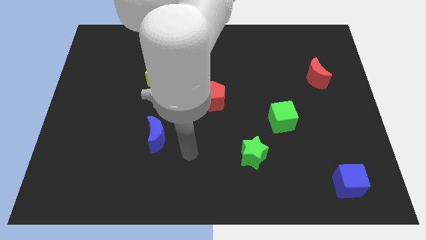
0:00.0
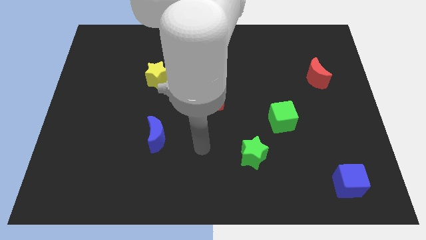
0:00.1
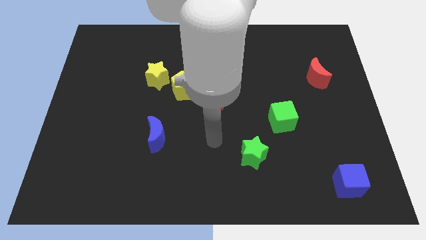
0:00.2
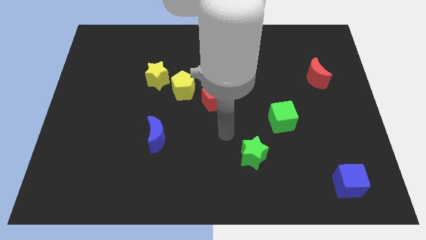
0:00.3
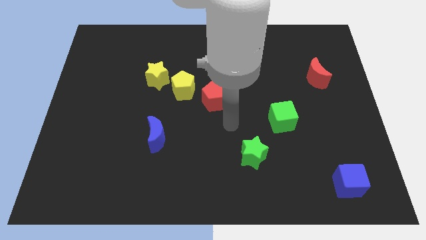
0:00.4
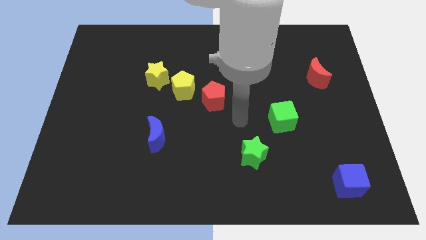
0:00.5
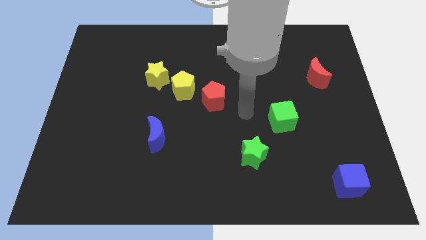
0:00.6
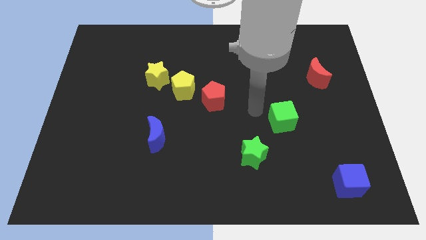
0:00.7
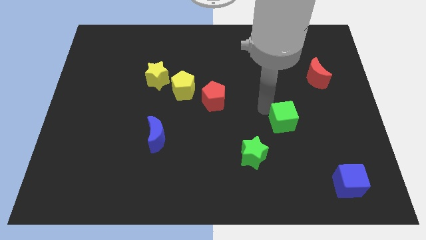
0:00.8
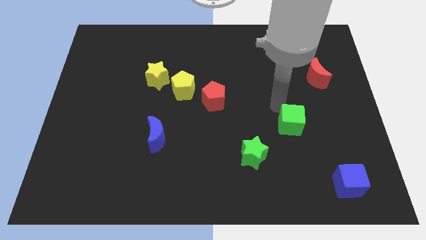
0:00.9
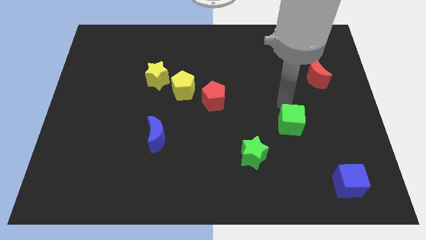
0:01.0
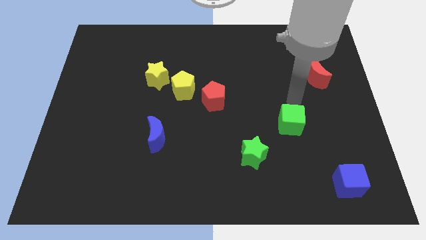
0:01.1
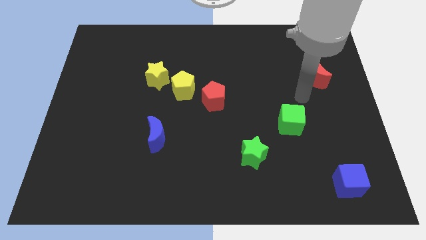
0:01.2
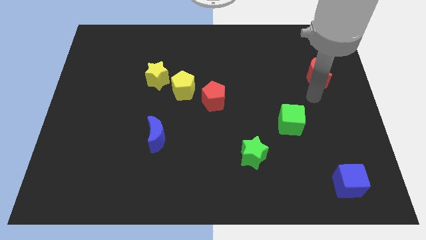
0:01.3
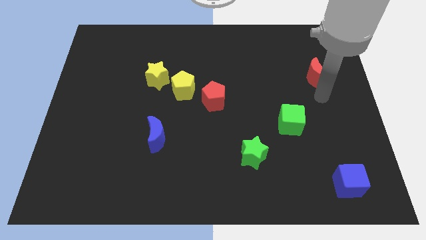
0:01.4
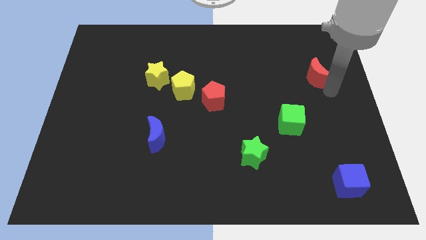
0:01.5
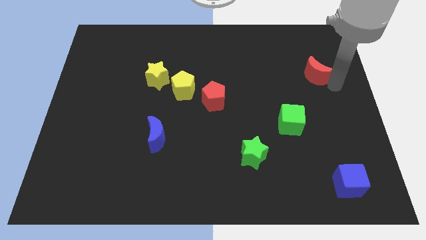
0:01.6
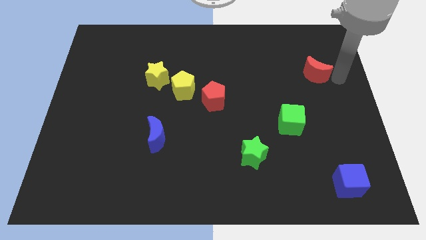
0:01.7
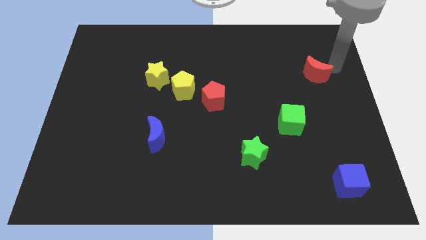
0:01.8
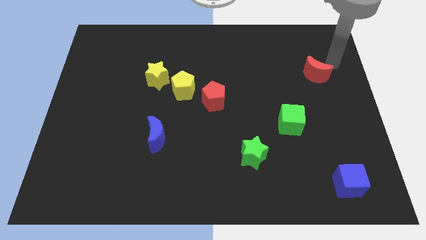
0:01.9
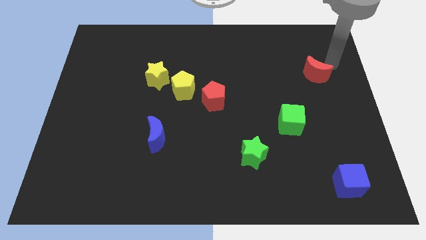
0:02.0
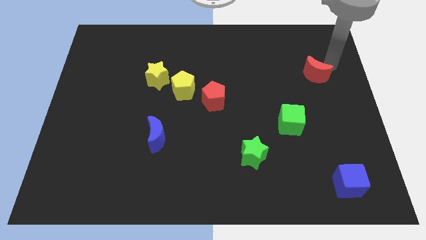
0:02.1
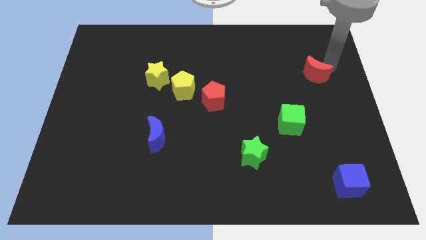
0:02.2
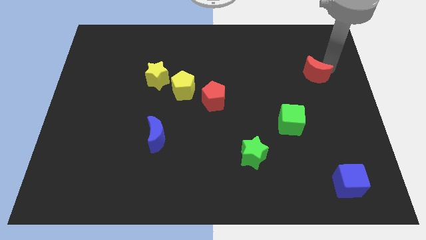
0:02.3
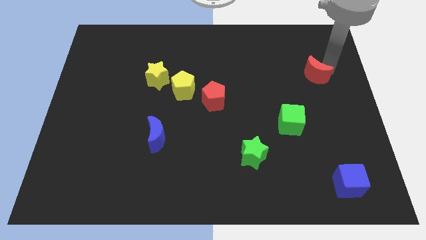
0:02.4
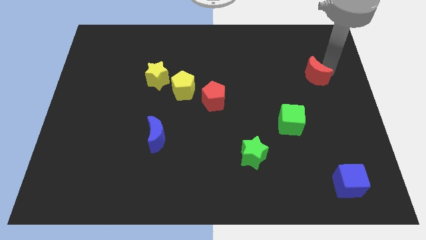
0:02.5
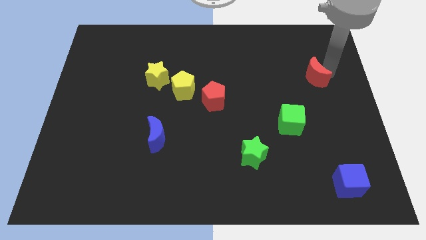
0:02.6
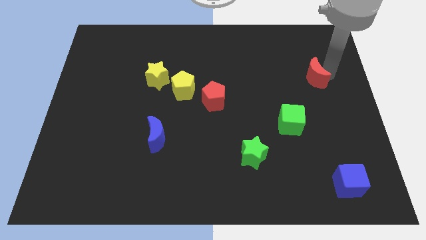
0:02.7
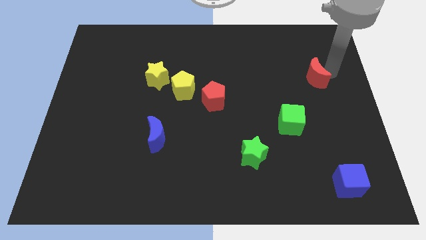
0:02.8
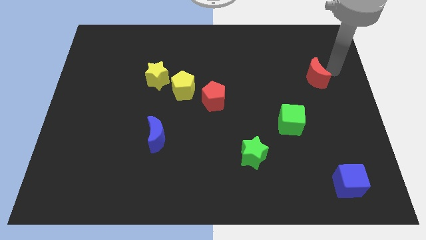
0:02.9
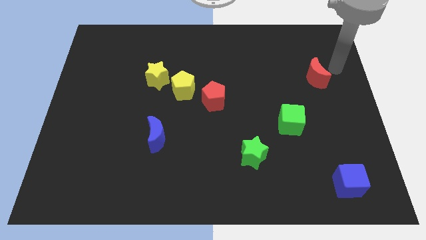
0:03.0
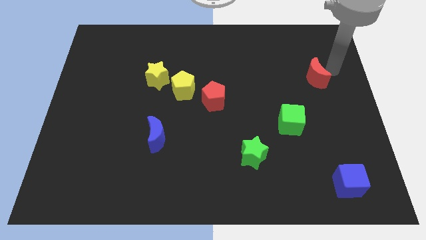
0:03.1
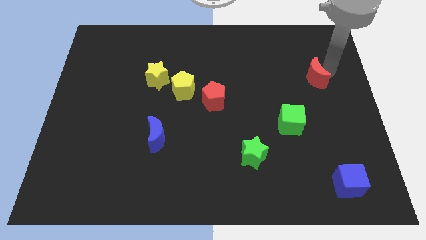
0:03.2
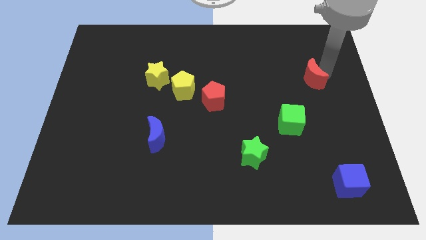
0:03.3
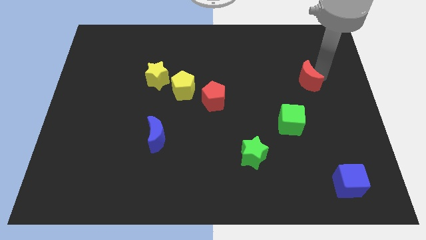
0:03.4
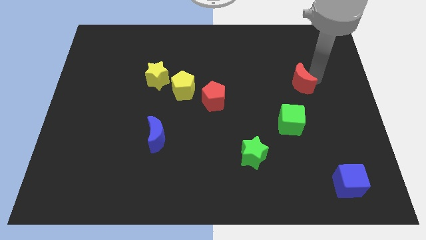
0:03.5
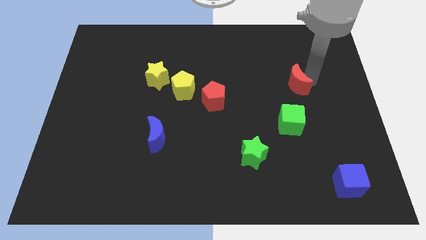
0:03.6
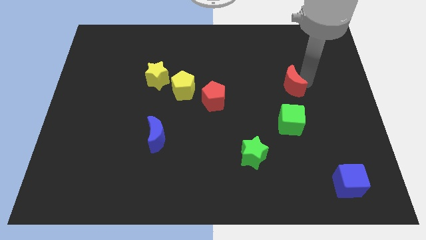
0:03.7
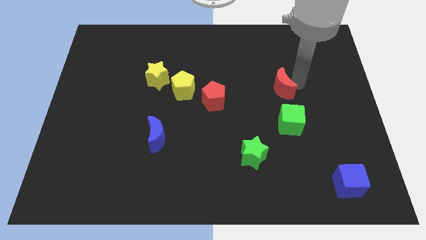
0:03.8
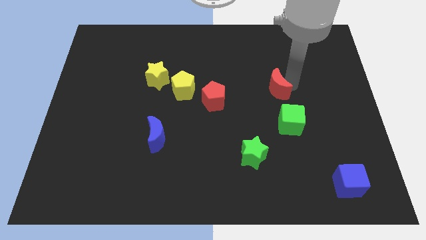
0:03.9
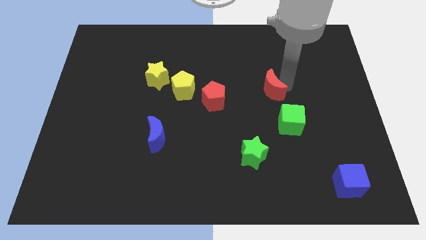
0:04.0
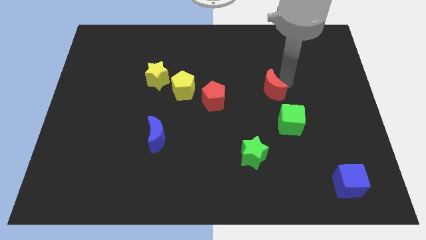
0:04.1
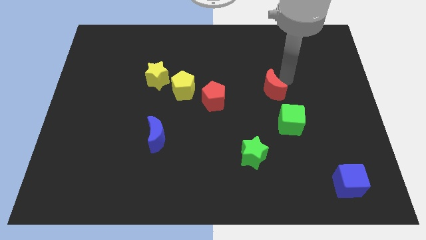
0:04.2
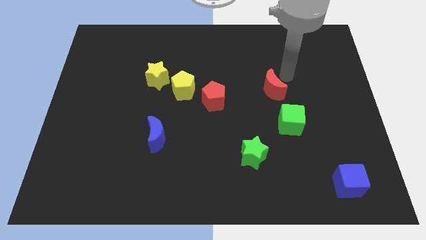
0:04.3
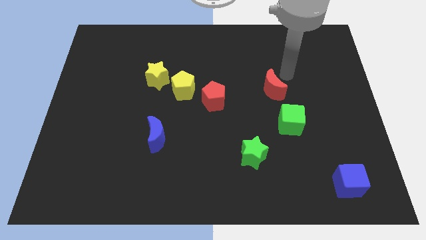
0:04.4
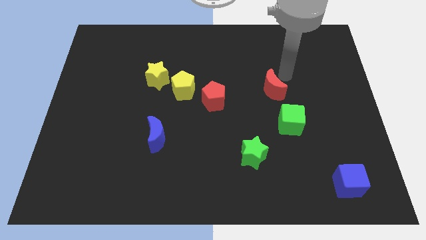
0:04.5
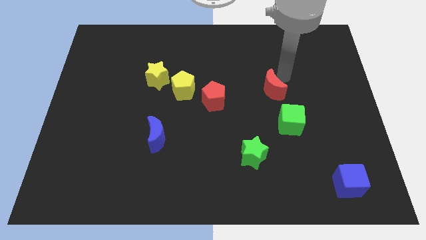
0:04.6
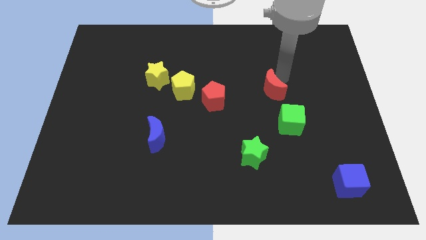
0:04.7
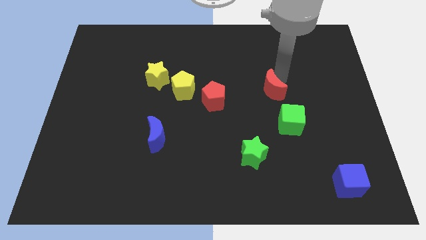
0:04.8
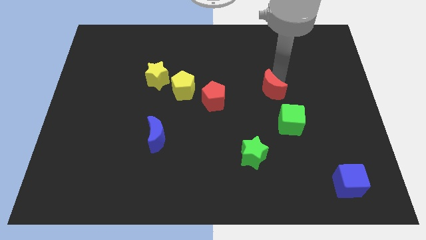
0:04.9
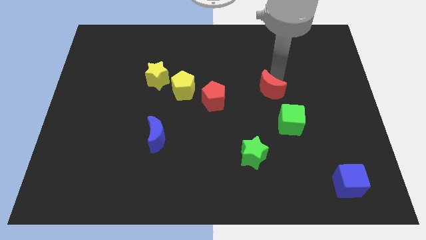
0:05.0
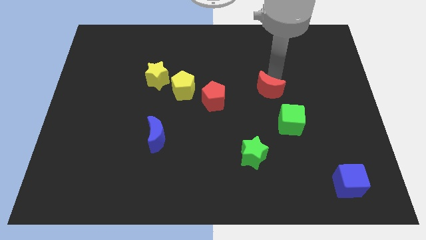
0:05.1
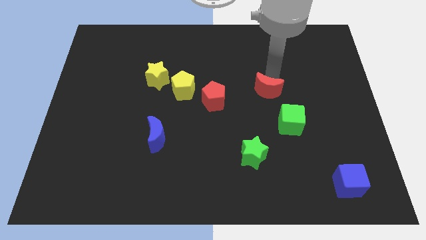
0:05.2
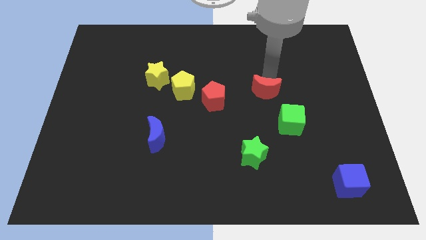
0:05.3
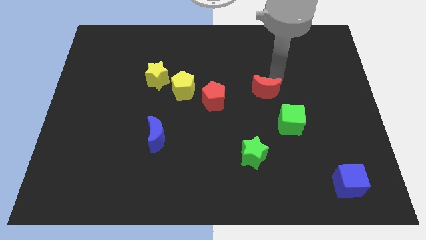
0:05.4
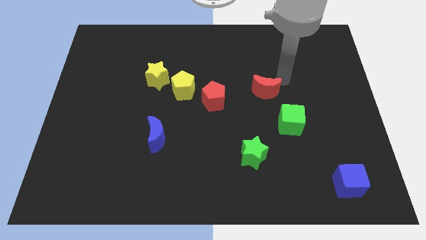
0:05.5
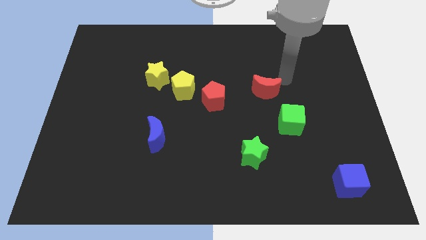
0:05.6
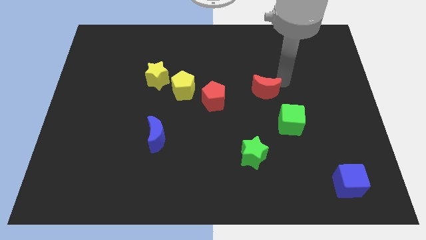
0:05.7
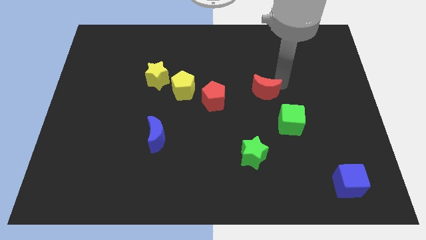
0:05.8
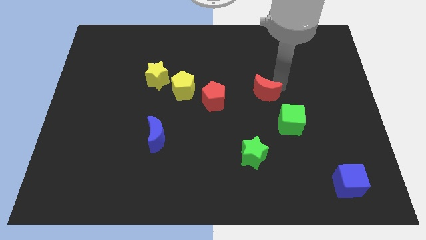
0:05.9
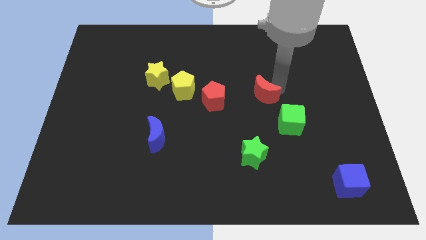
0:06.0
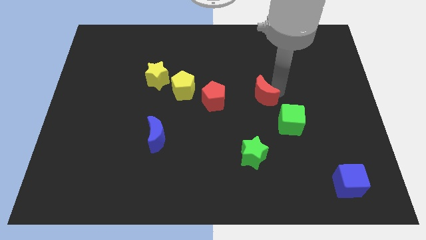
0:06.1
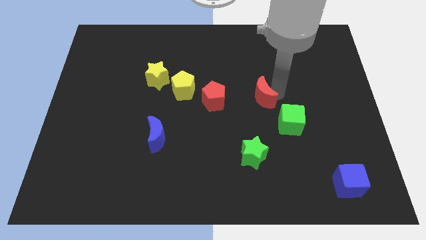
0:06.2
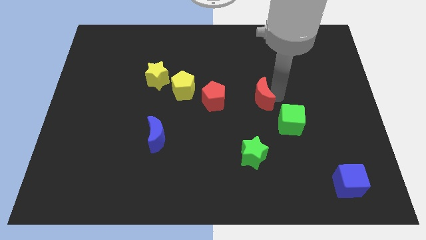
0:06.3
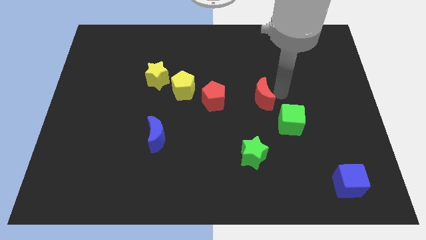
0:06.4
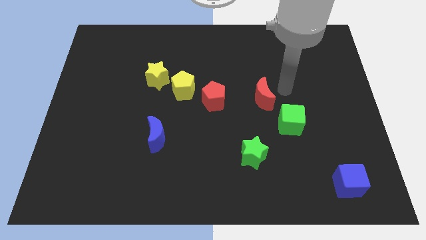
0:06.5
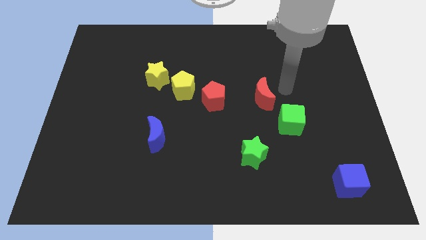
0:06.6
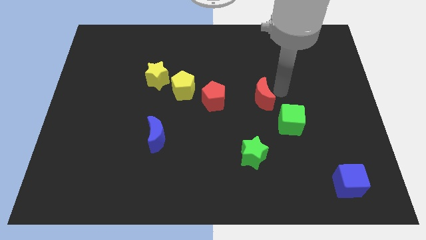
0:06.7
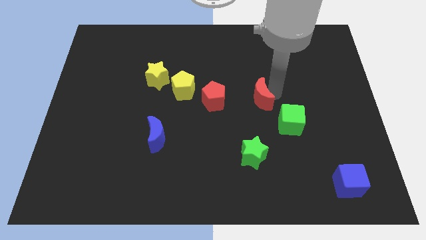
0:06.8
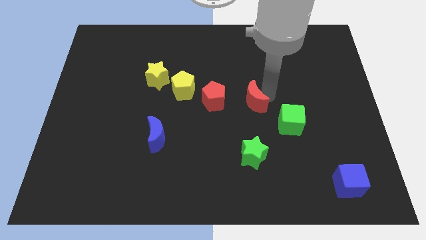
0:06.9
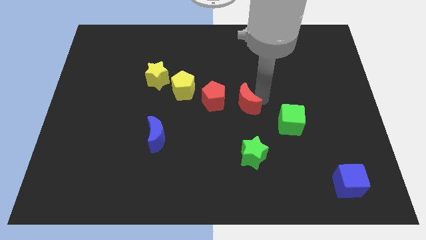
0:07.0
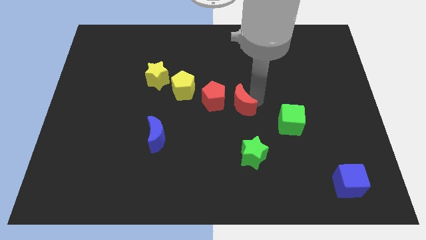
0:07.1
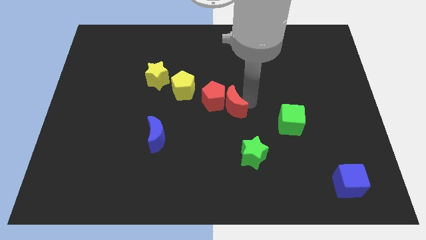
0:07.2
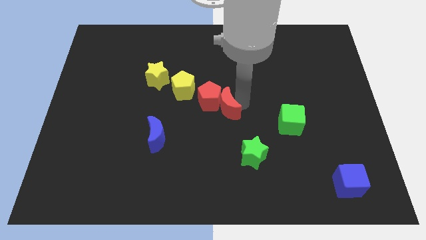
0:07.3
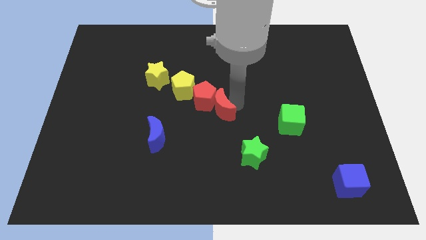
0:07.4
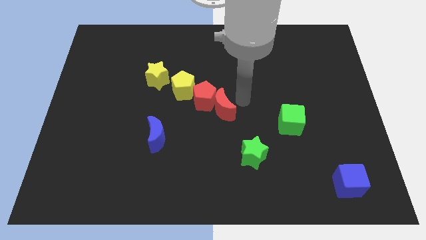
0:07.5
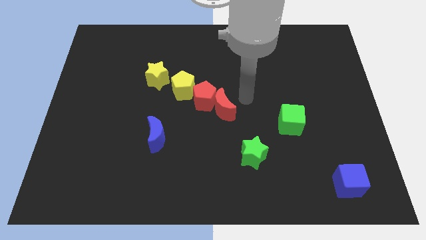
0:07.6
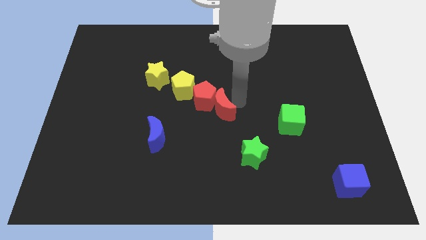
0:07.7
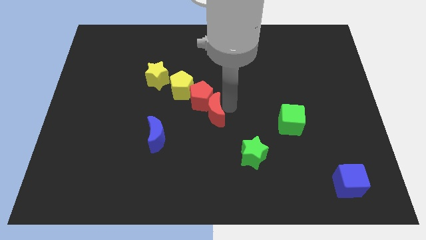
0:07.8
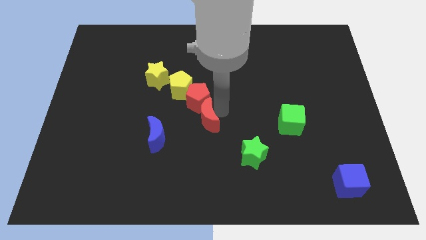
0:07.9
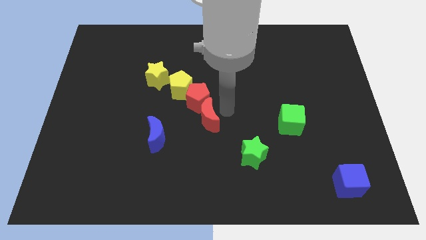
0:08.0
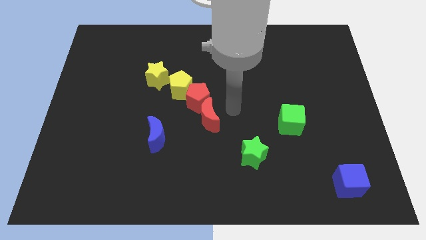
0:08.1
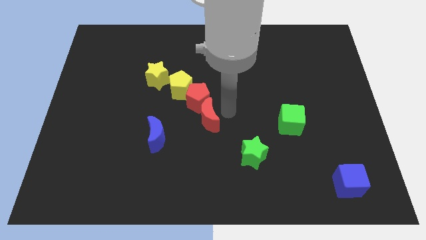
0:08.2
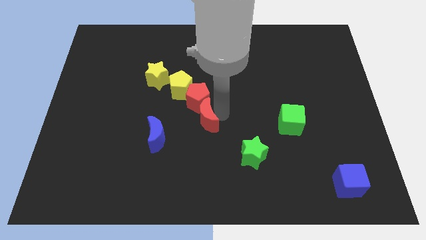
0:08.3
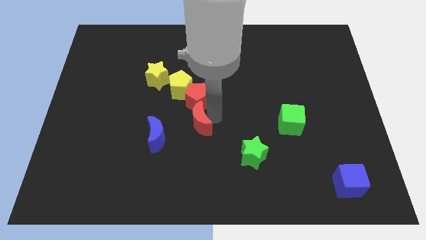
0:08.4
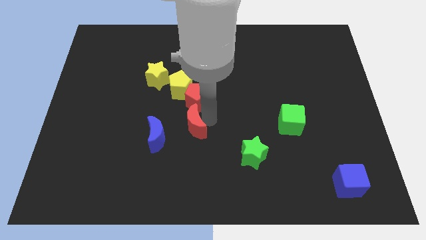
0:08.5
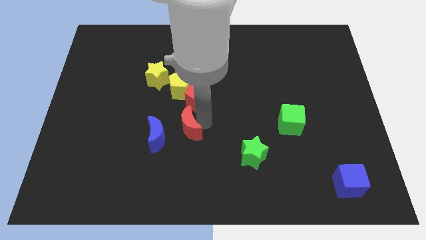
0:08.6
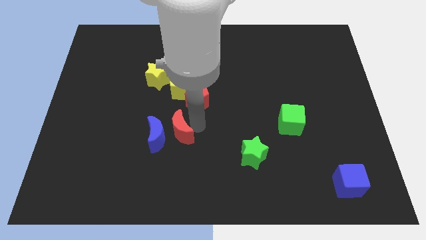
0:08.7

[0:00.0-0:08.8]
slide the red moon next to the blue moon
